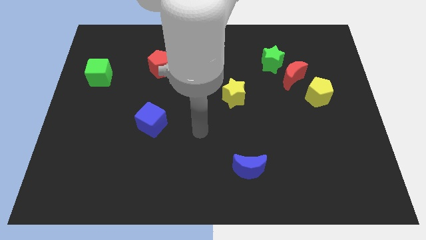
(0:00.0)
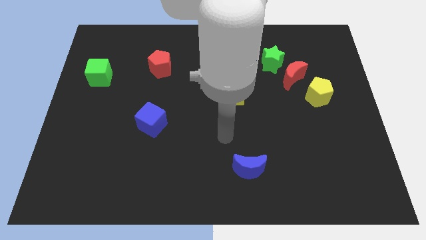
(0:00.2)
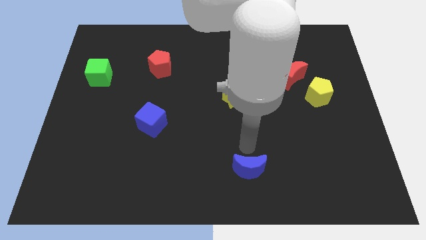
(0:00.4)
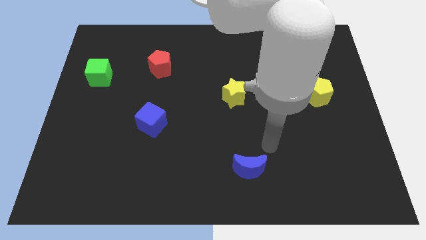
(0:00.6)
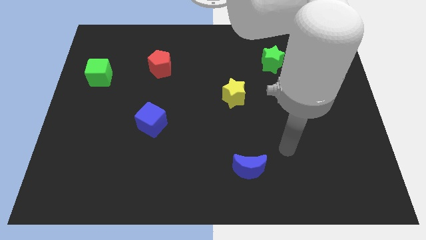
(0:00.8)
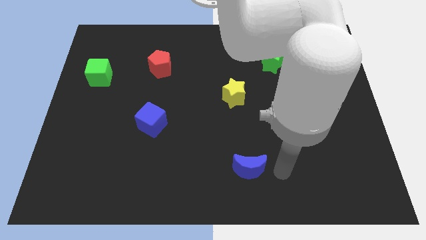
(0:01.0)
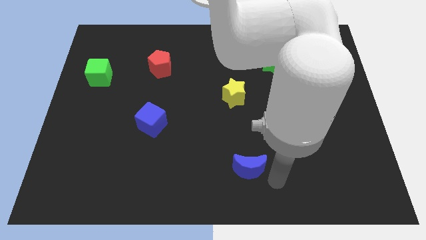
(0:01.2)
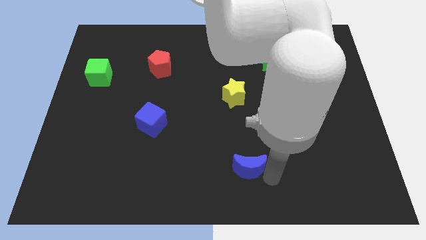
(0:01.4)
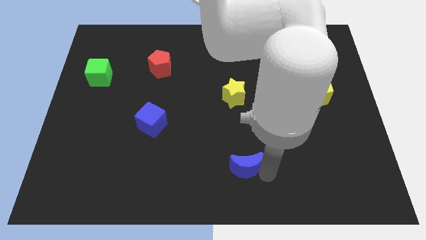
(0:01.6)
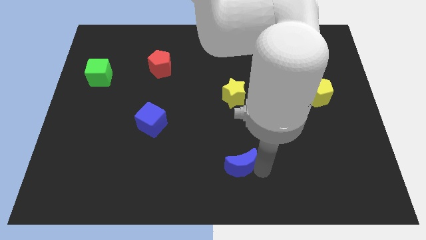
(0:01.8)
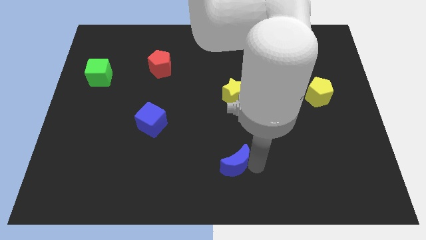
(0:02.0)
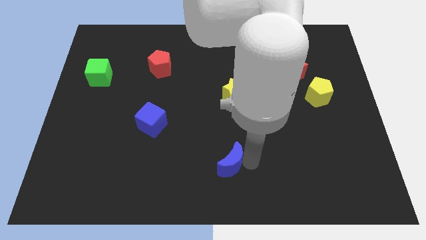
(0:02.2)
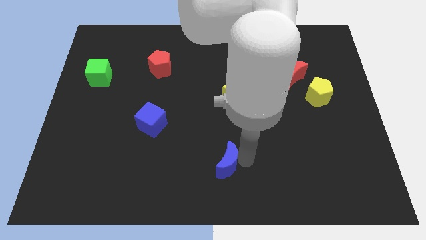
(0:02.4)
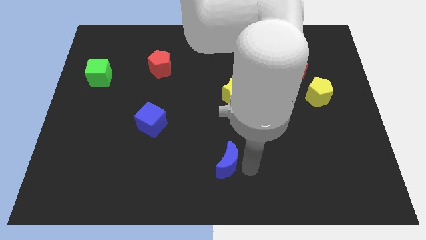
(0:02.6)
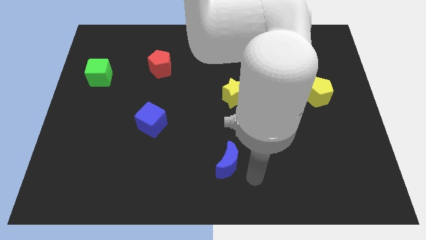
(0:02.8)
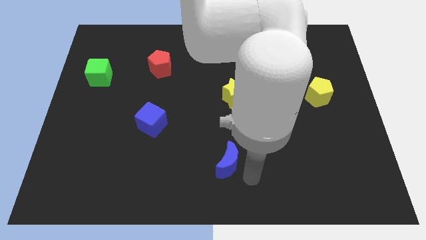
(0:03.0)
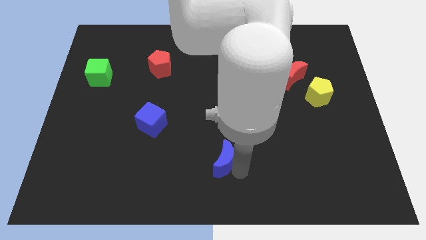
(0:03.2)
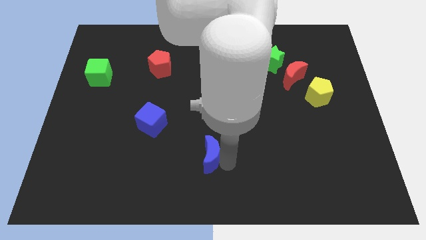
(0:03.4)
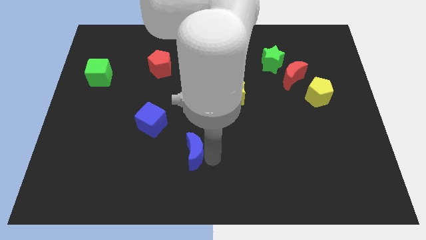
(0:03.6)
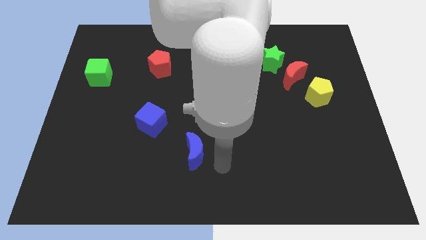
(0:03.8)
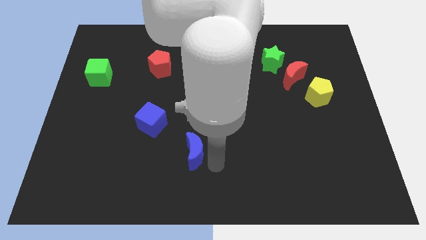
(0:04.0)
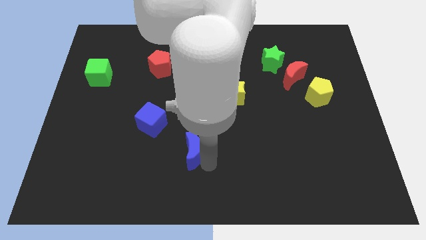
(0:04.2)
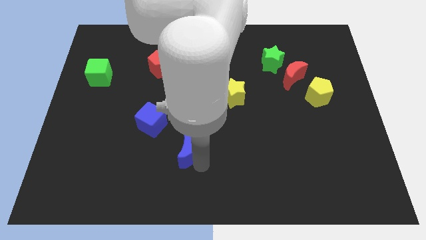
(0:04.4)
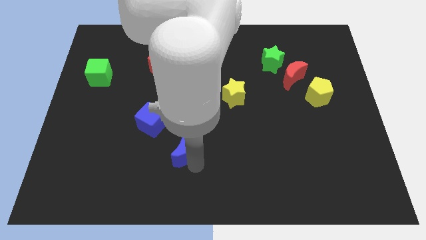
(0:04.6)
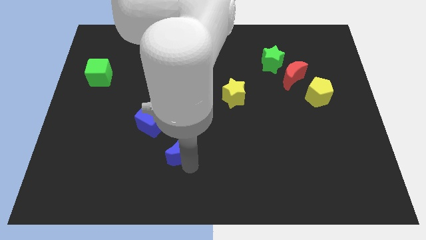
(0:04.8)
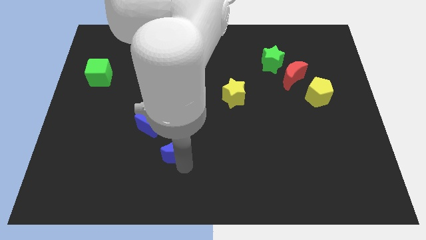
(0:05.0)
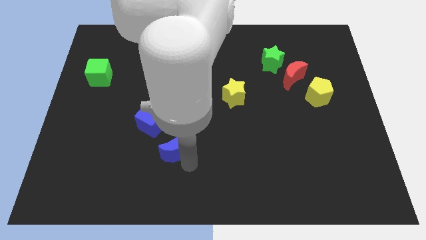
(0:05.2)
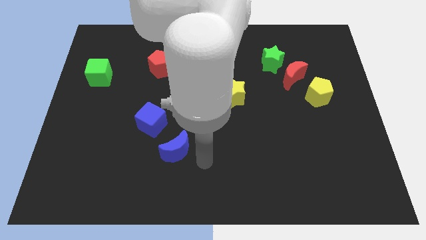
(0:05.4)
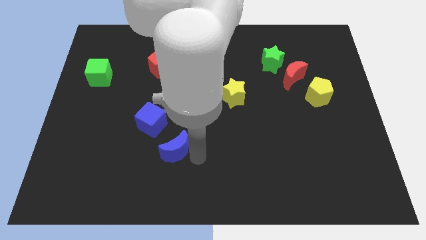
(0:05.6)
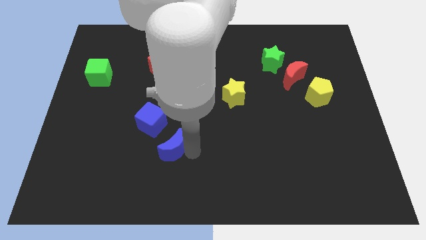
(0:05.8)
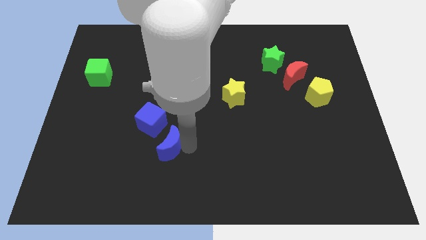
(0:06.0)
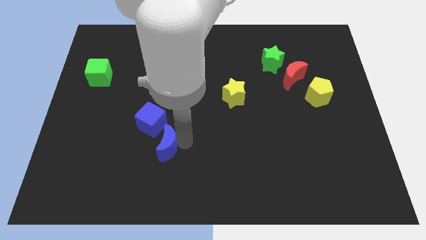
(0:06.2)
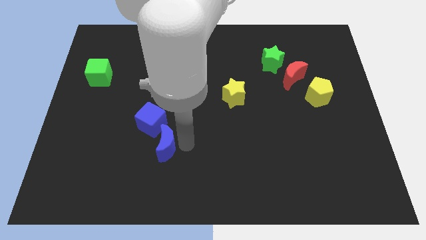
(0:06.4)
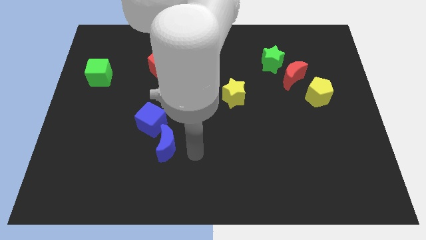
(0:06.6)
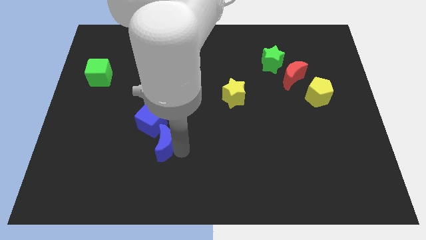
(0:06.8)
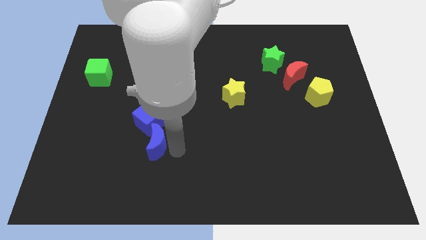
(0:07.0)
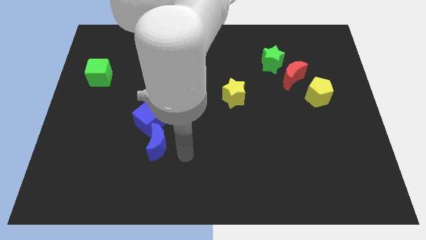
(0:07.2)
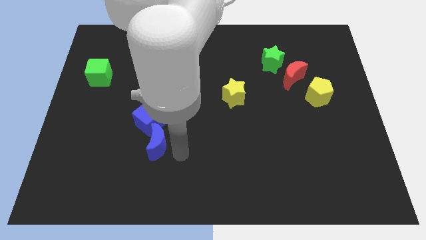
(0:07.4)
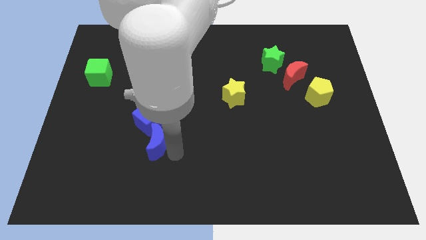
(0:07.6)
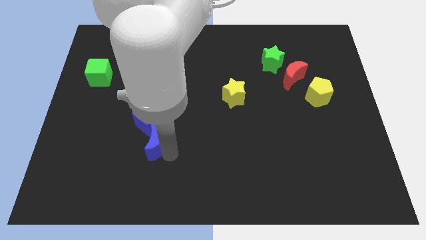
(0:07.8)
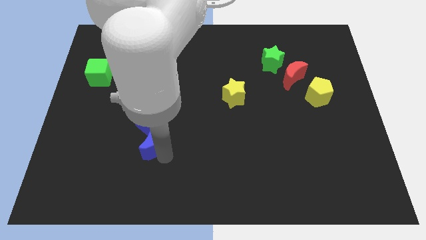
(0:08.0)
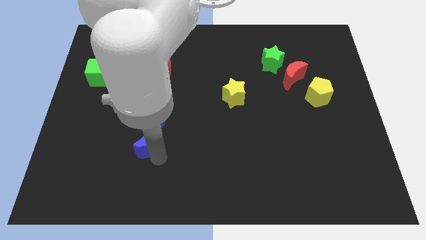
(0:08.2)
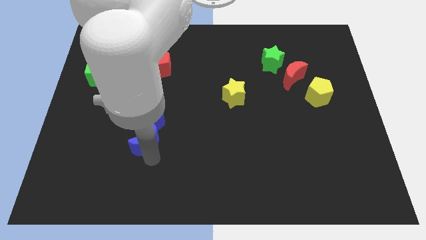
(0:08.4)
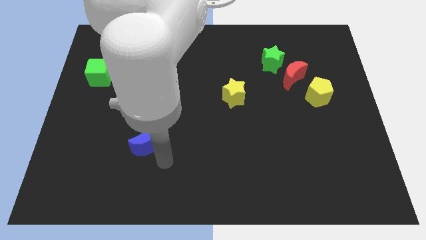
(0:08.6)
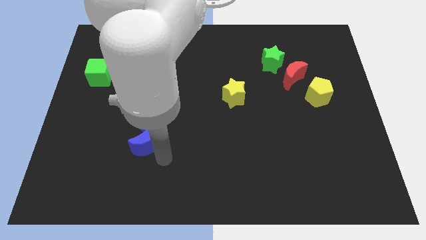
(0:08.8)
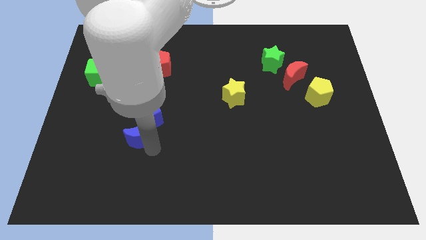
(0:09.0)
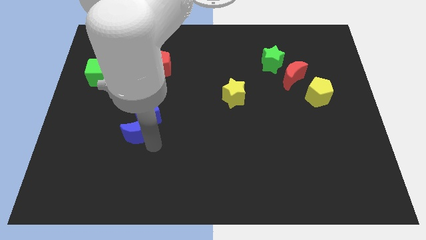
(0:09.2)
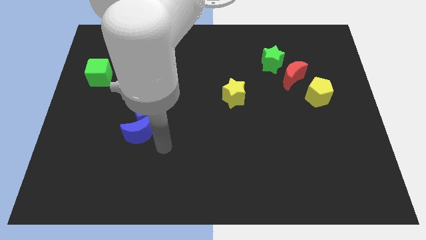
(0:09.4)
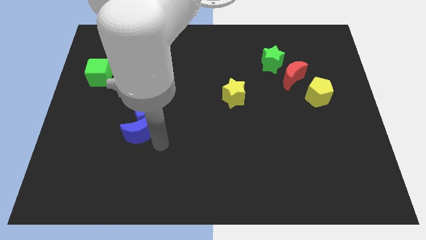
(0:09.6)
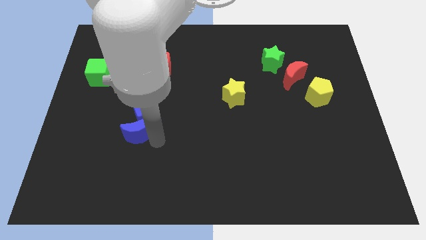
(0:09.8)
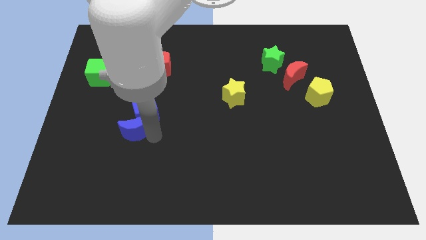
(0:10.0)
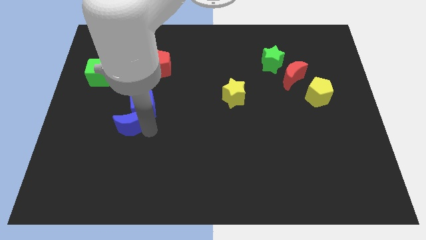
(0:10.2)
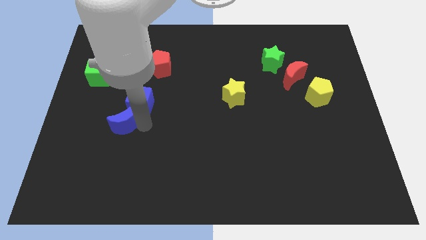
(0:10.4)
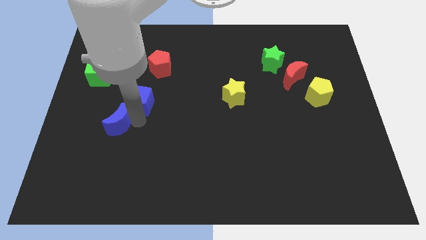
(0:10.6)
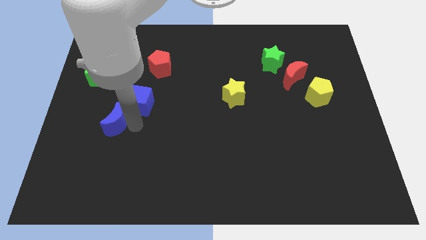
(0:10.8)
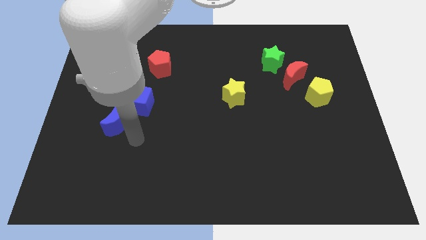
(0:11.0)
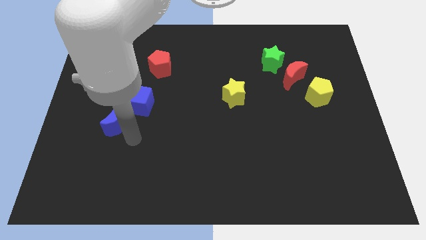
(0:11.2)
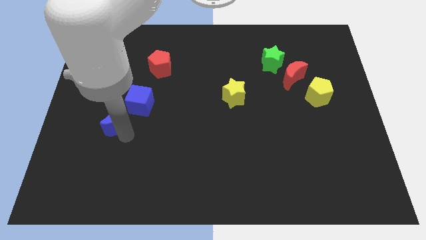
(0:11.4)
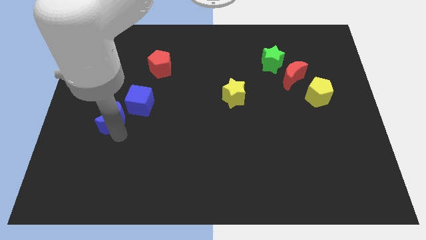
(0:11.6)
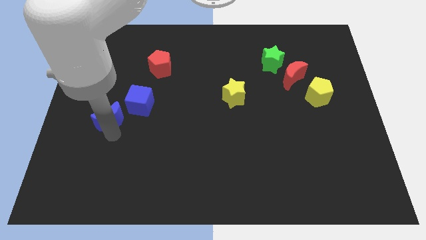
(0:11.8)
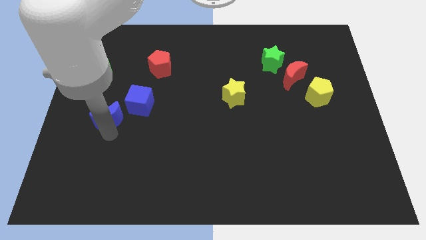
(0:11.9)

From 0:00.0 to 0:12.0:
slide the blue moon to the left side of the blue cube

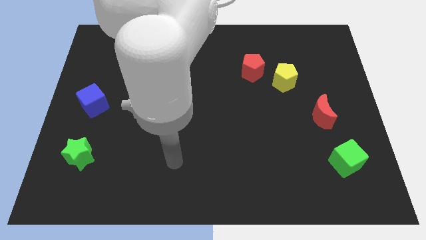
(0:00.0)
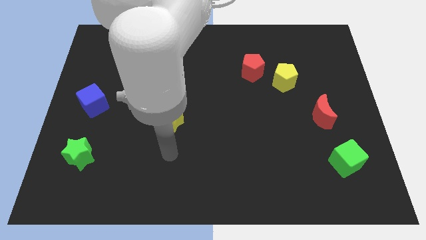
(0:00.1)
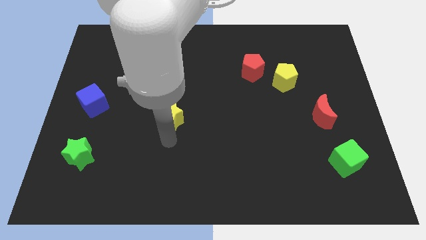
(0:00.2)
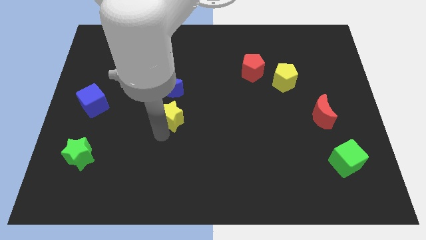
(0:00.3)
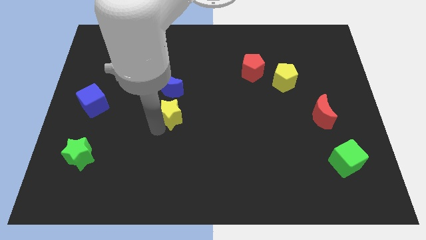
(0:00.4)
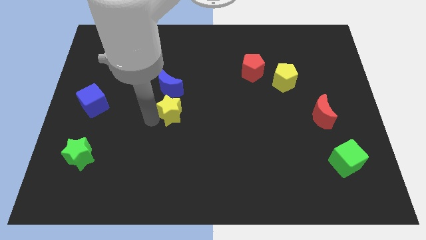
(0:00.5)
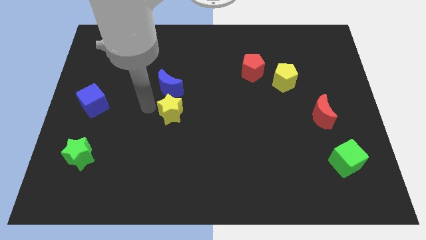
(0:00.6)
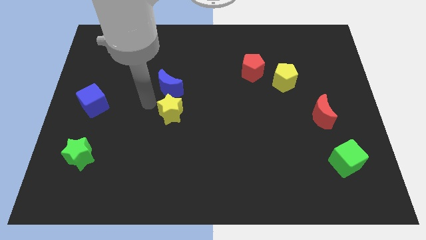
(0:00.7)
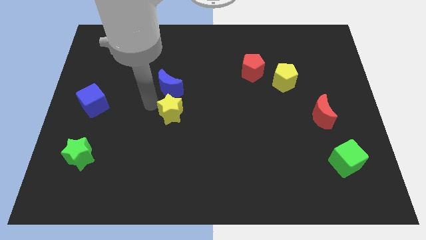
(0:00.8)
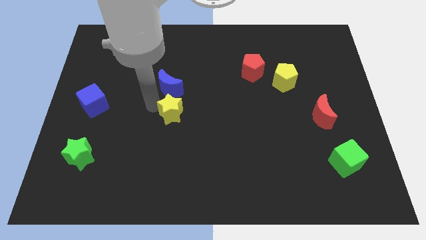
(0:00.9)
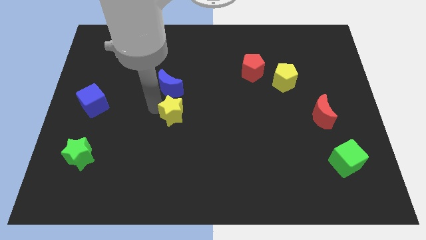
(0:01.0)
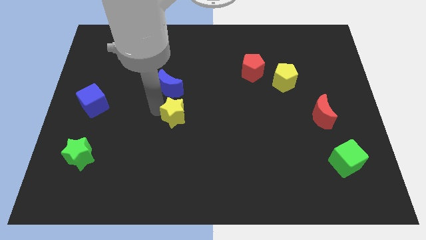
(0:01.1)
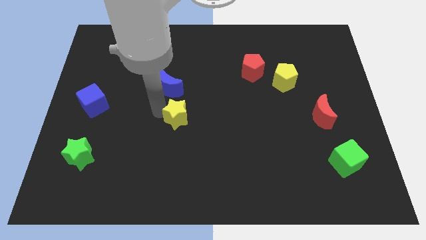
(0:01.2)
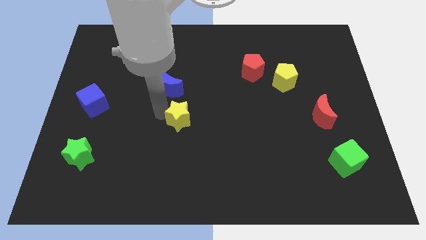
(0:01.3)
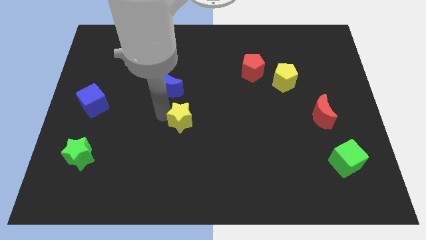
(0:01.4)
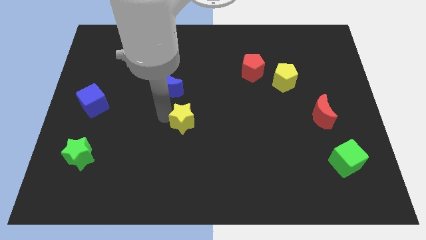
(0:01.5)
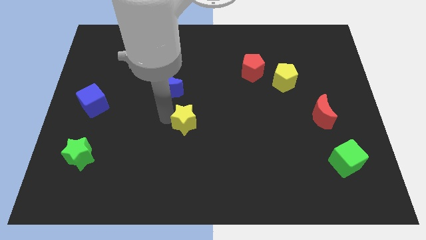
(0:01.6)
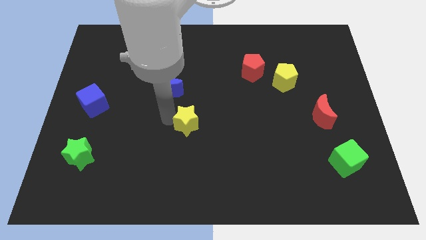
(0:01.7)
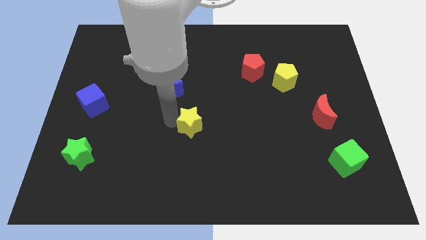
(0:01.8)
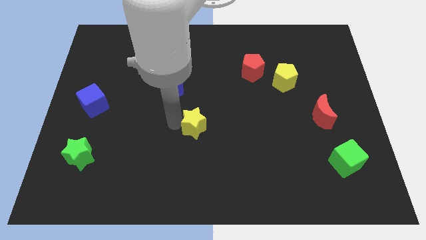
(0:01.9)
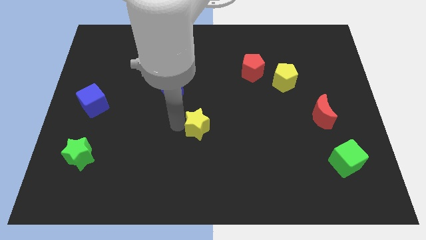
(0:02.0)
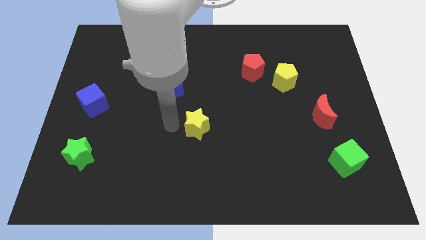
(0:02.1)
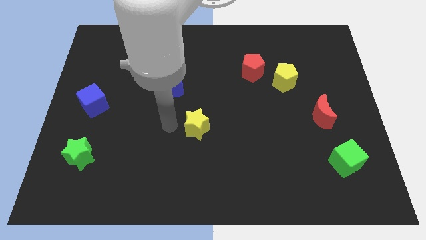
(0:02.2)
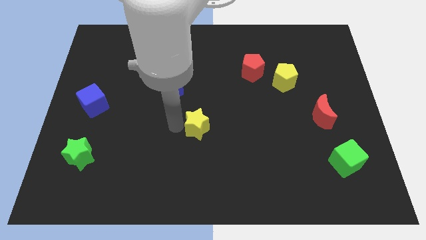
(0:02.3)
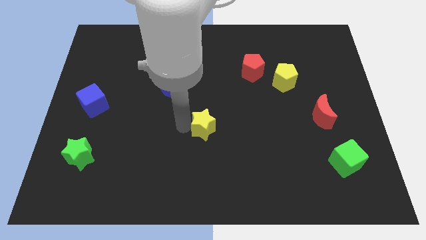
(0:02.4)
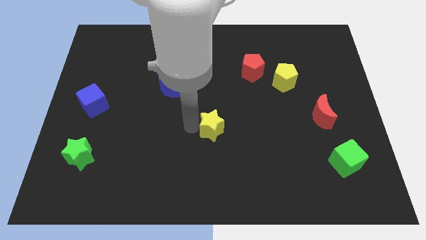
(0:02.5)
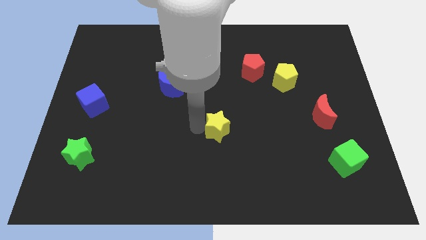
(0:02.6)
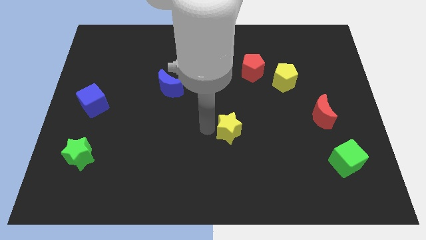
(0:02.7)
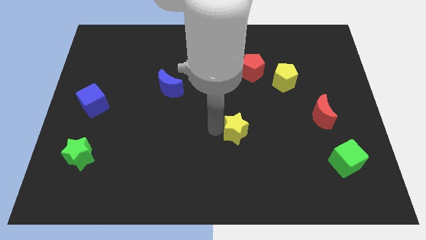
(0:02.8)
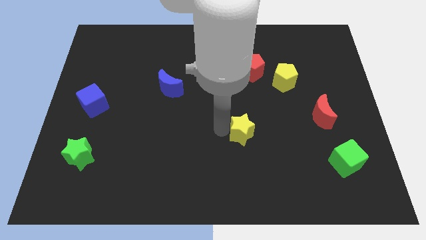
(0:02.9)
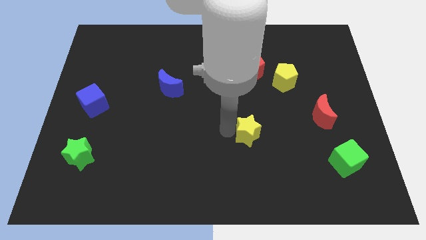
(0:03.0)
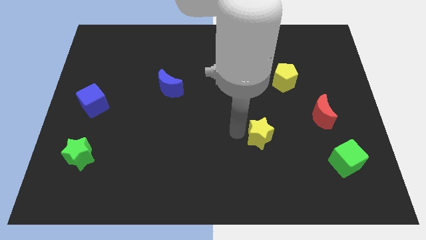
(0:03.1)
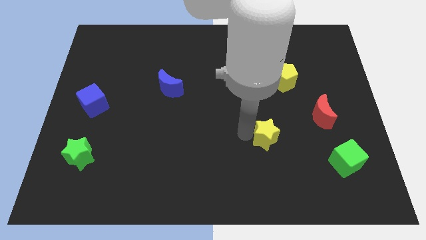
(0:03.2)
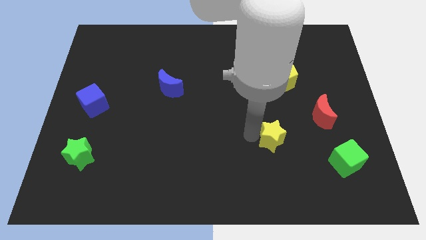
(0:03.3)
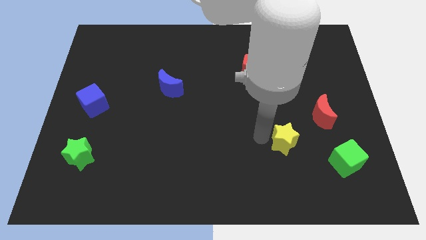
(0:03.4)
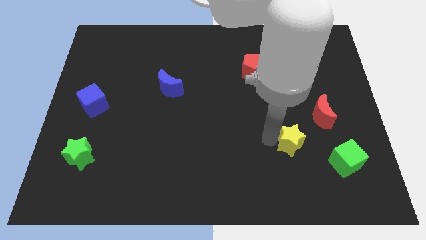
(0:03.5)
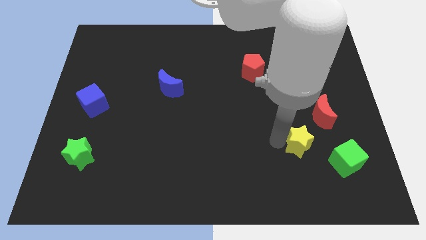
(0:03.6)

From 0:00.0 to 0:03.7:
move the yellow star diagonally up and to the left of the green cube
